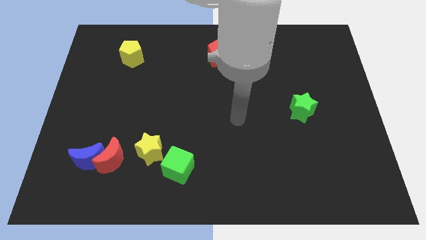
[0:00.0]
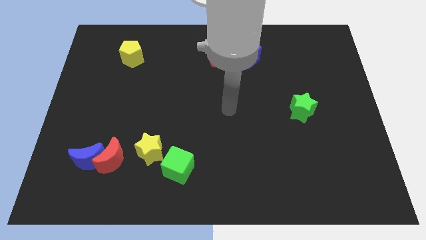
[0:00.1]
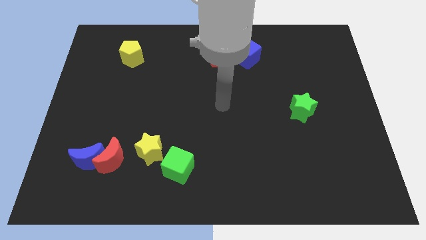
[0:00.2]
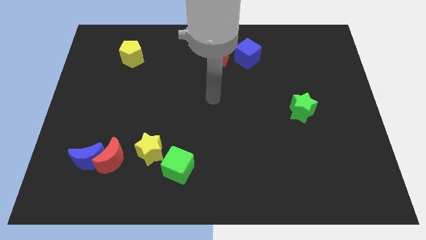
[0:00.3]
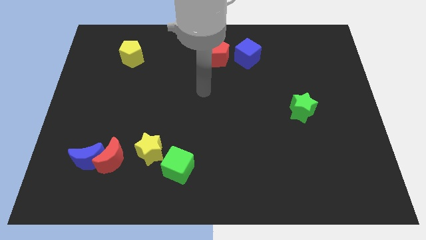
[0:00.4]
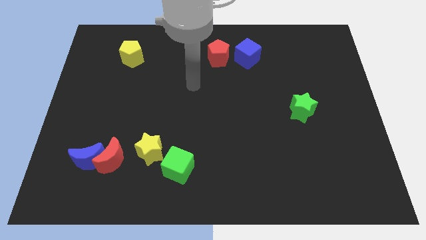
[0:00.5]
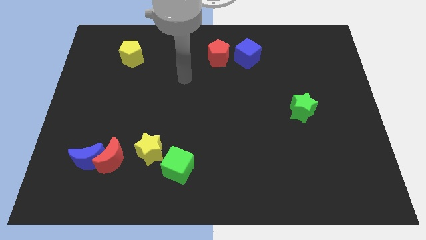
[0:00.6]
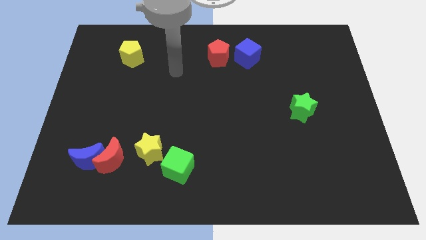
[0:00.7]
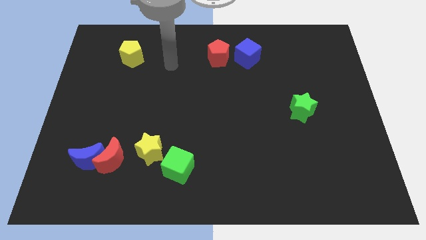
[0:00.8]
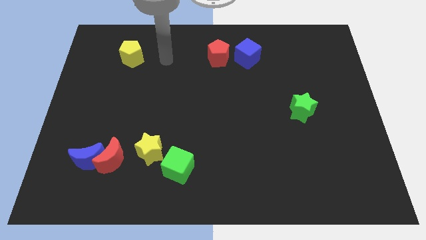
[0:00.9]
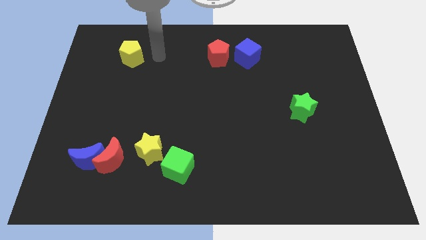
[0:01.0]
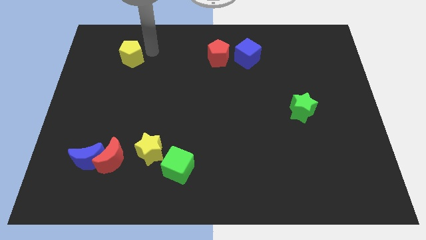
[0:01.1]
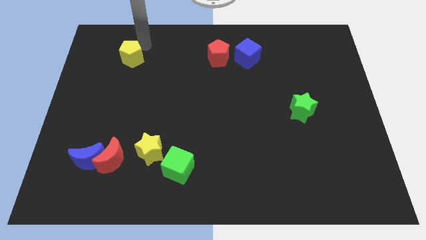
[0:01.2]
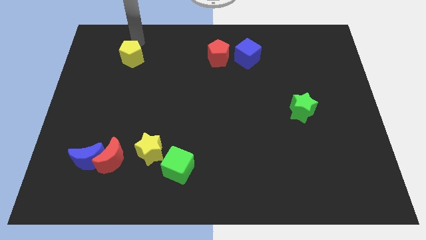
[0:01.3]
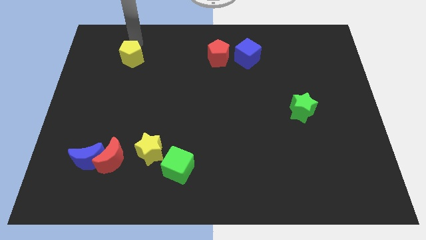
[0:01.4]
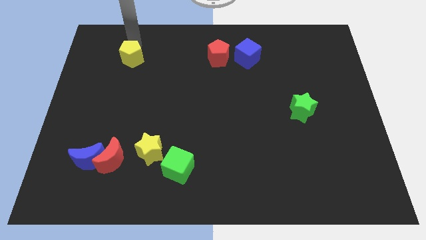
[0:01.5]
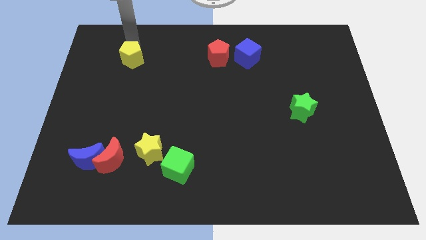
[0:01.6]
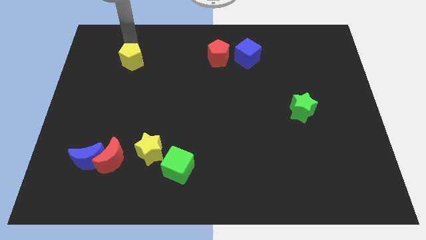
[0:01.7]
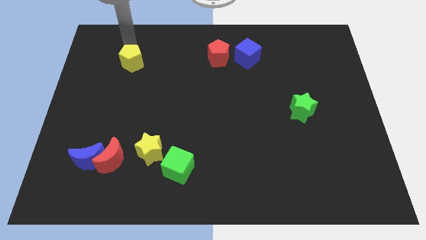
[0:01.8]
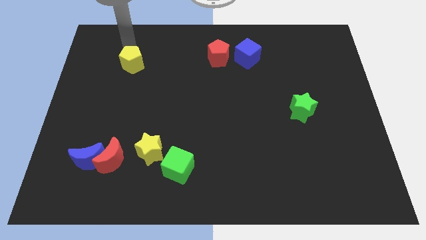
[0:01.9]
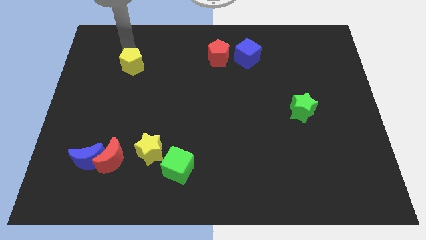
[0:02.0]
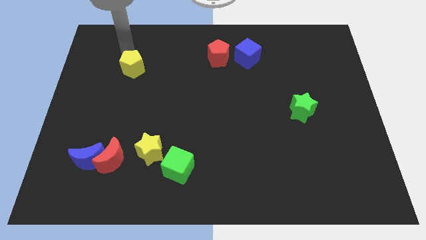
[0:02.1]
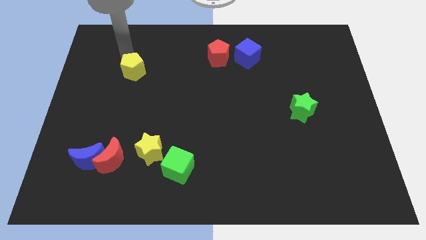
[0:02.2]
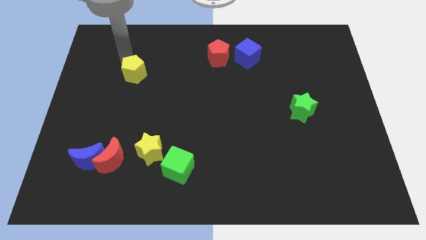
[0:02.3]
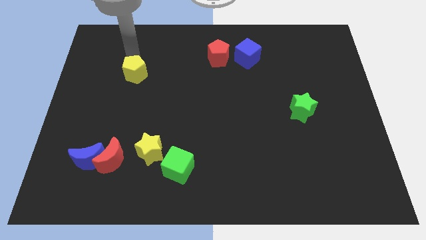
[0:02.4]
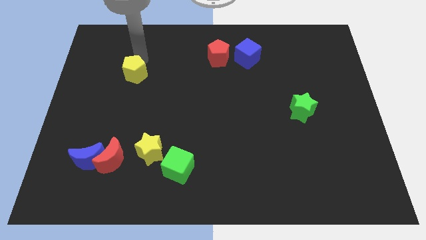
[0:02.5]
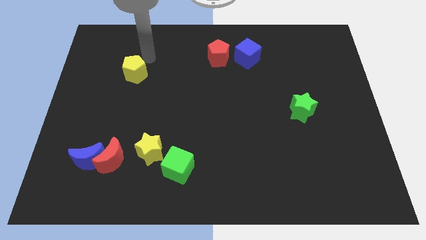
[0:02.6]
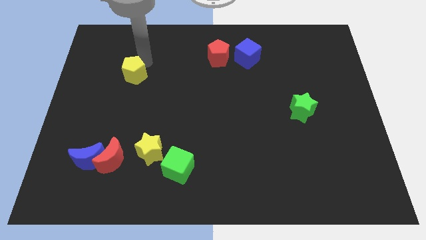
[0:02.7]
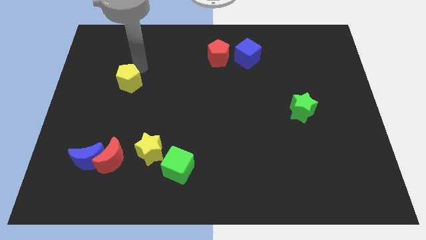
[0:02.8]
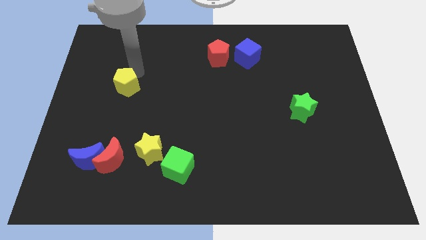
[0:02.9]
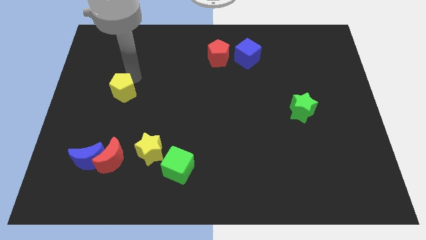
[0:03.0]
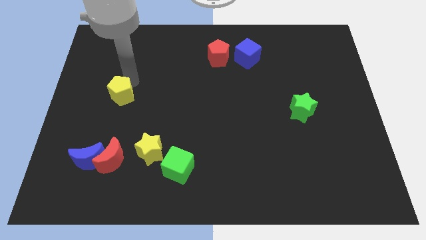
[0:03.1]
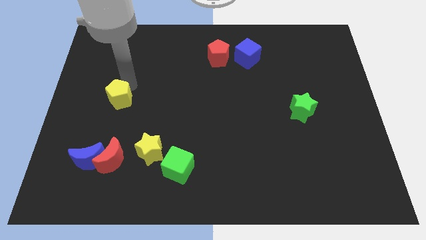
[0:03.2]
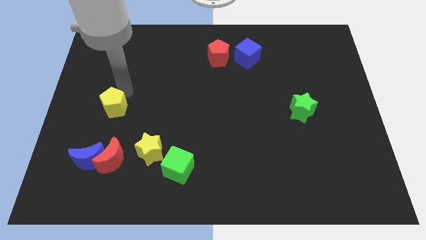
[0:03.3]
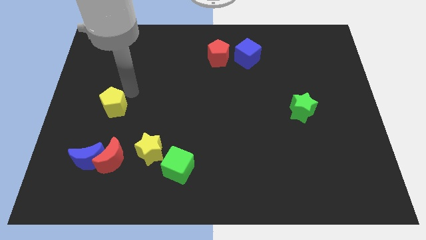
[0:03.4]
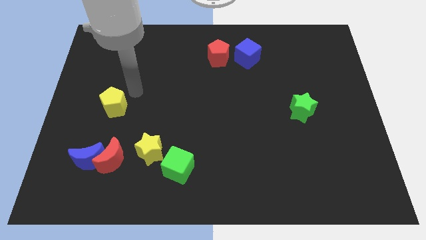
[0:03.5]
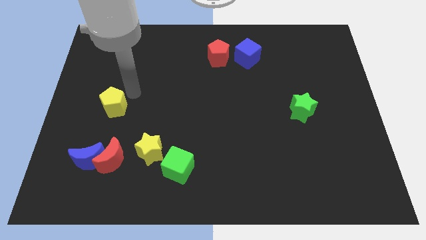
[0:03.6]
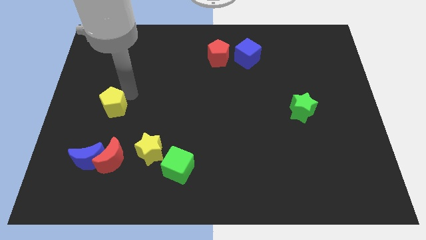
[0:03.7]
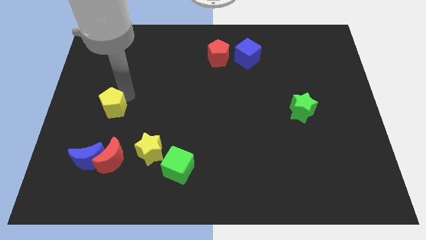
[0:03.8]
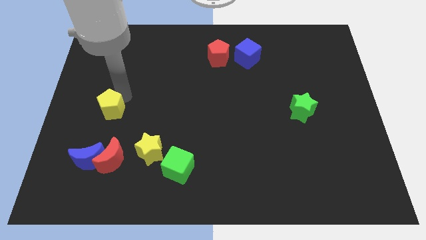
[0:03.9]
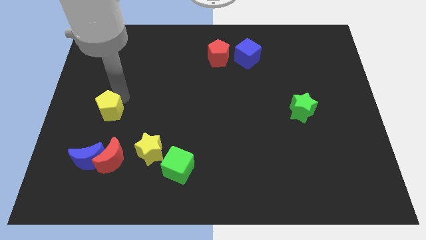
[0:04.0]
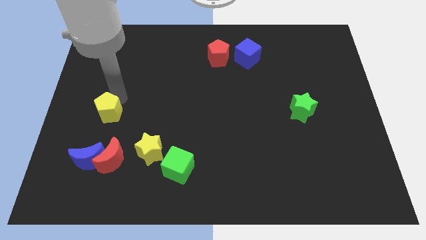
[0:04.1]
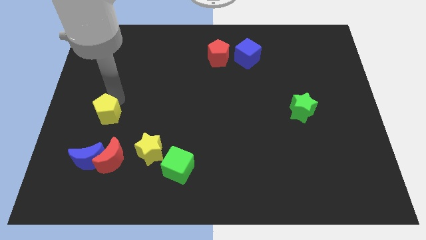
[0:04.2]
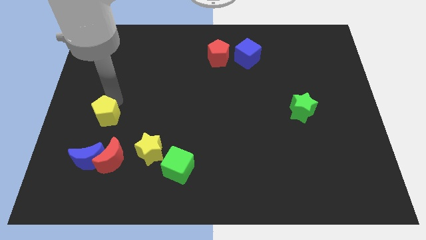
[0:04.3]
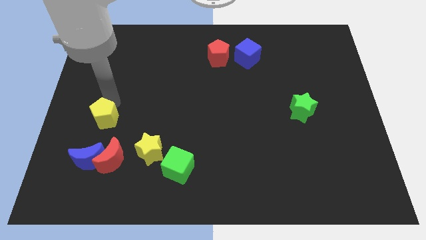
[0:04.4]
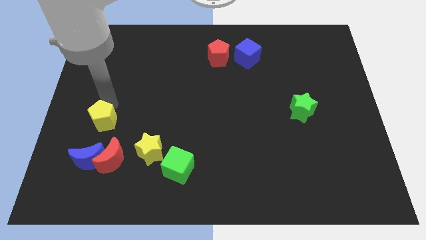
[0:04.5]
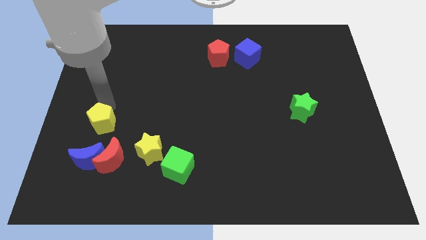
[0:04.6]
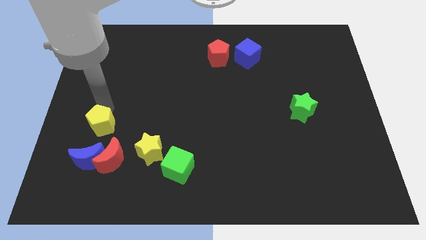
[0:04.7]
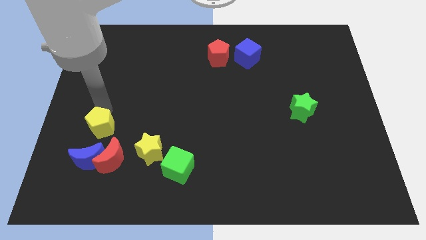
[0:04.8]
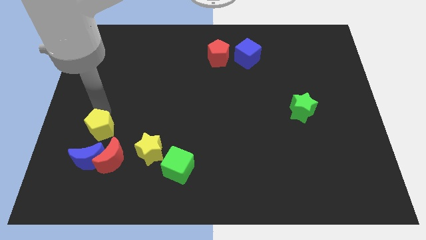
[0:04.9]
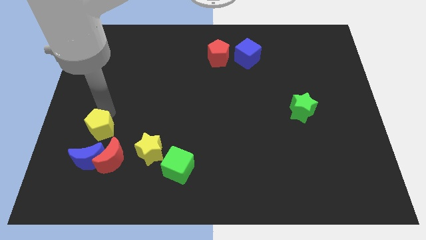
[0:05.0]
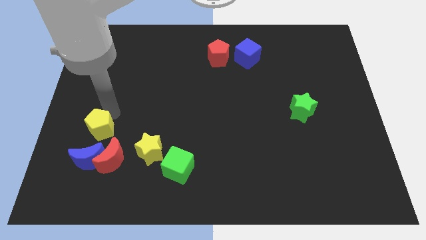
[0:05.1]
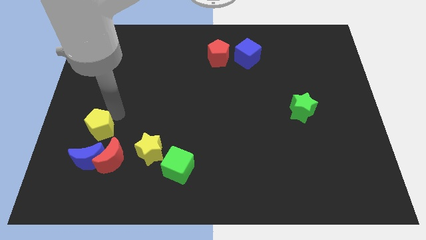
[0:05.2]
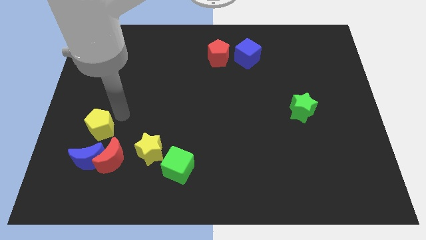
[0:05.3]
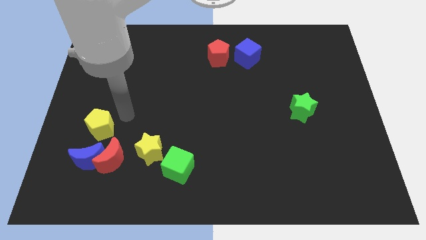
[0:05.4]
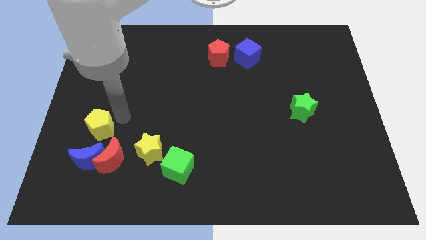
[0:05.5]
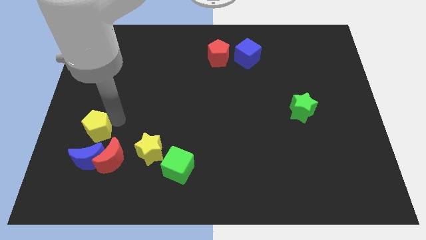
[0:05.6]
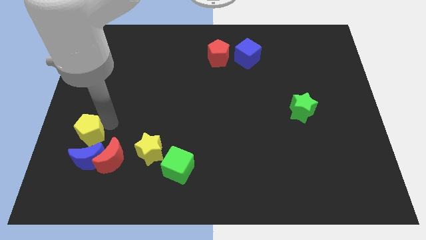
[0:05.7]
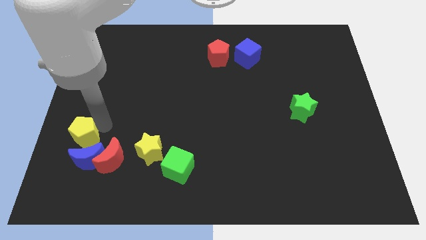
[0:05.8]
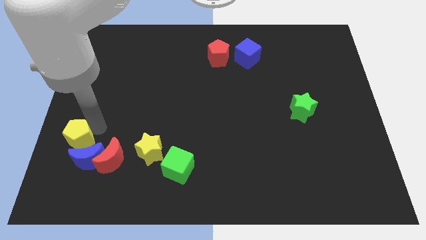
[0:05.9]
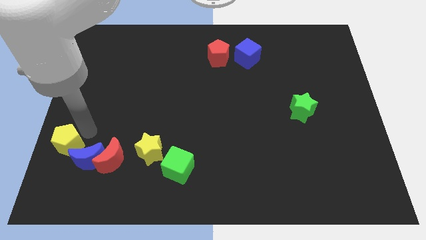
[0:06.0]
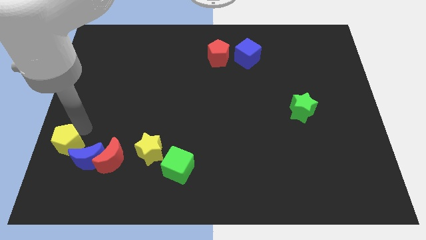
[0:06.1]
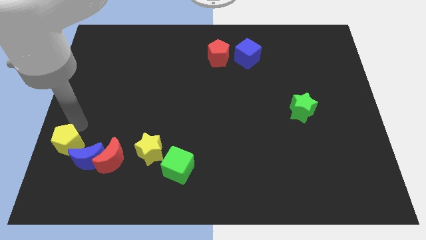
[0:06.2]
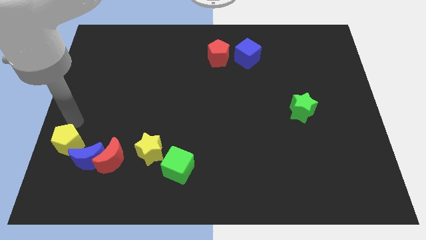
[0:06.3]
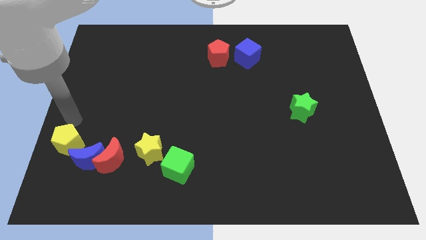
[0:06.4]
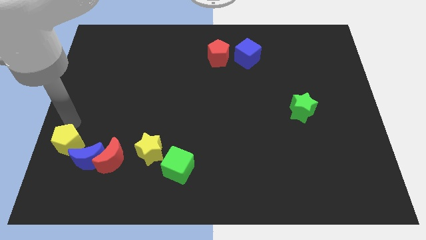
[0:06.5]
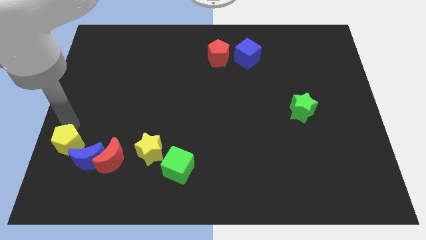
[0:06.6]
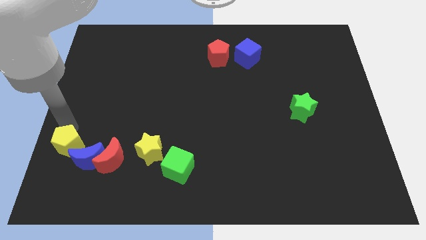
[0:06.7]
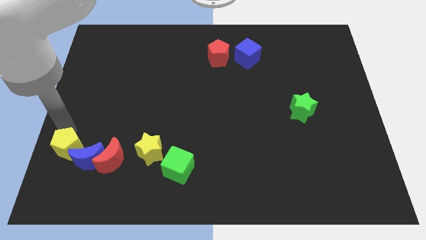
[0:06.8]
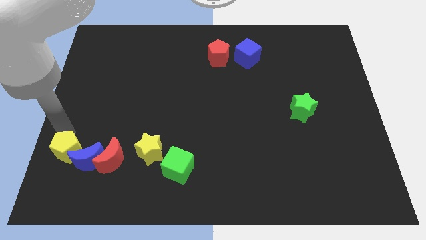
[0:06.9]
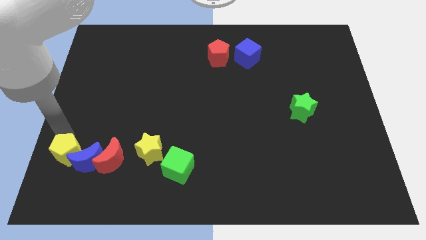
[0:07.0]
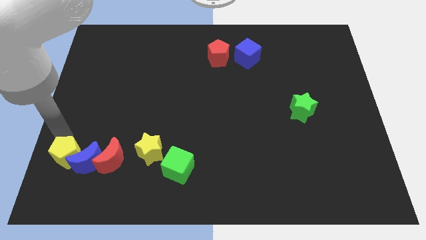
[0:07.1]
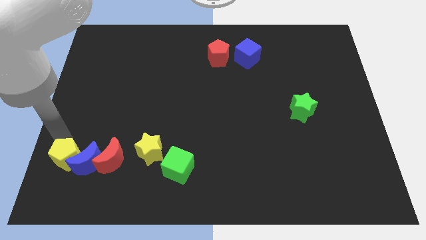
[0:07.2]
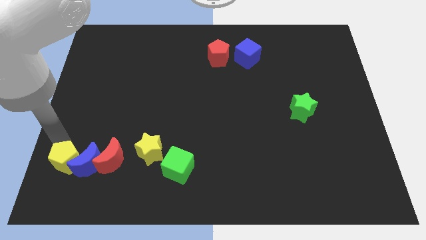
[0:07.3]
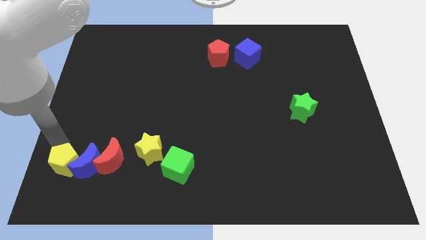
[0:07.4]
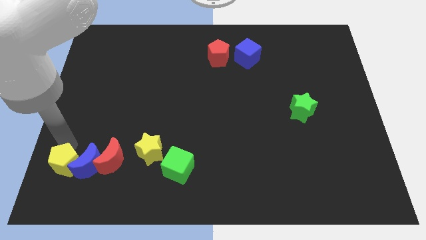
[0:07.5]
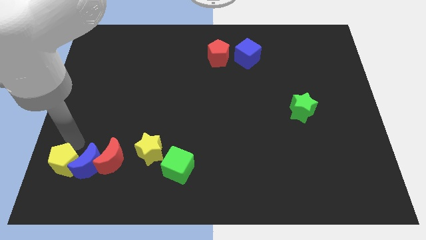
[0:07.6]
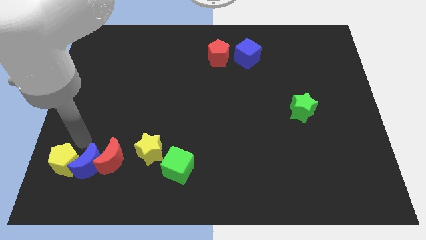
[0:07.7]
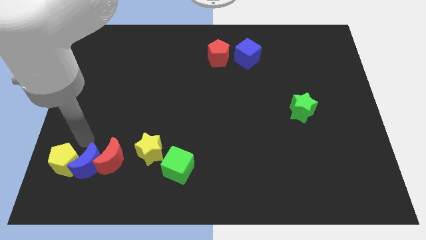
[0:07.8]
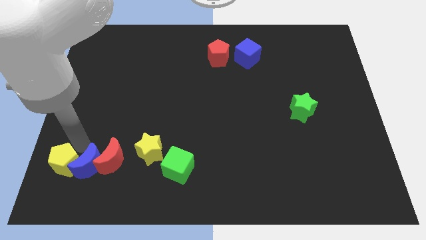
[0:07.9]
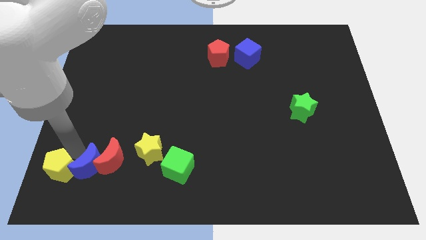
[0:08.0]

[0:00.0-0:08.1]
put the yellow pentagon to the lower left corner
